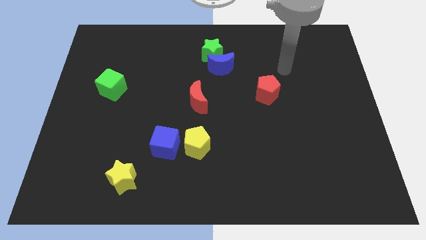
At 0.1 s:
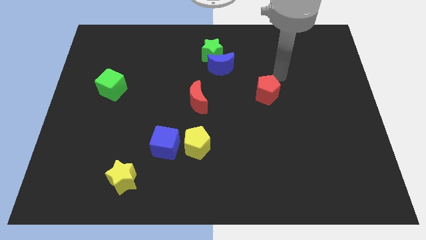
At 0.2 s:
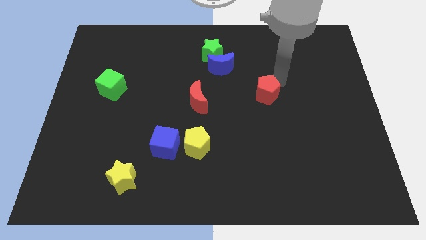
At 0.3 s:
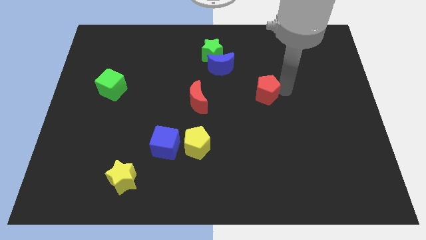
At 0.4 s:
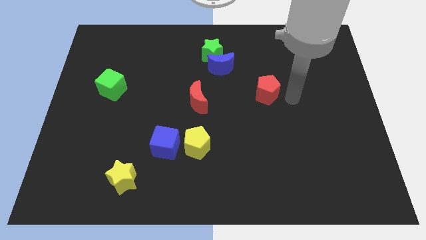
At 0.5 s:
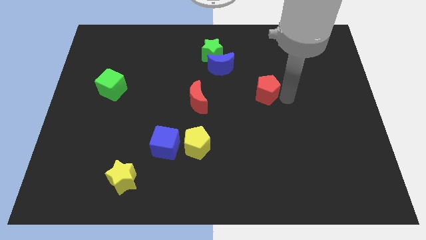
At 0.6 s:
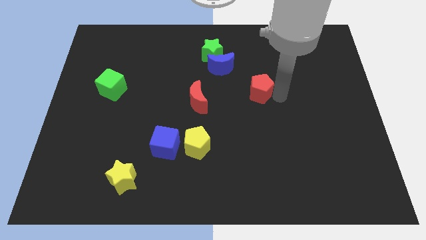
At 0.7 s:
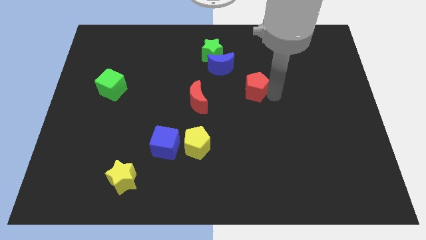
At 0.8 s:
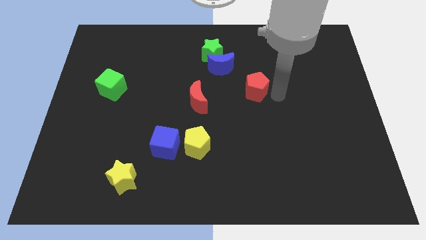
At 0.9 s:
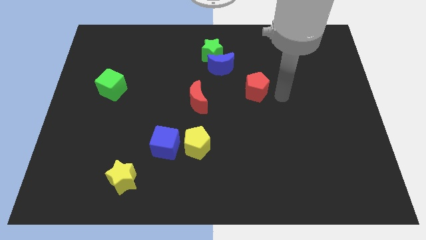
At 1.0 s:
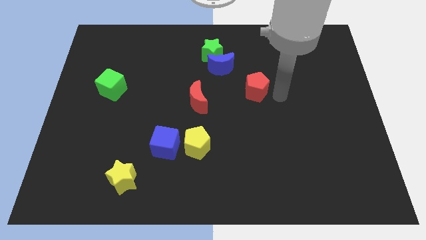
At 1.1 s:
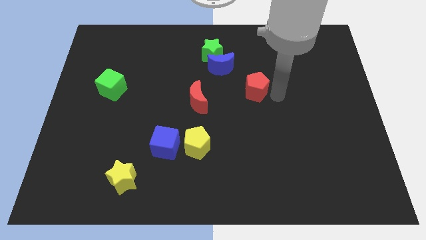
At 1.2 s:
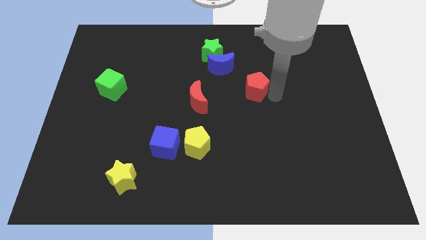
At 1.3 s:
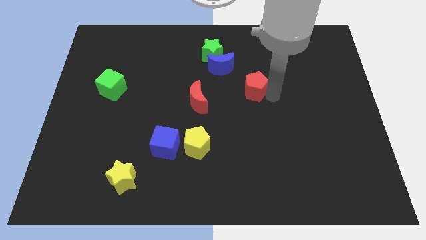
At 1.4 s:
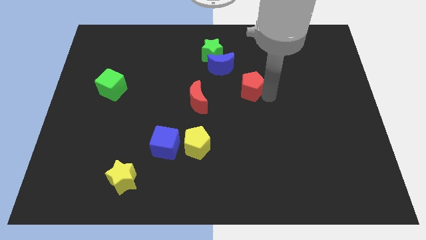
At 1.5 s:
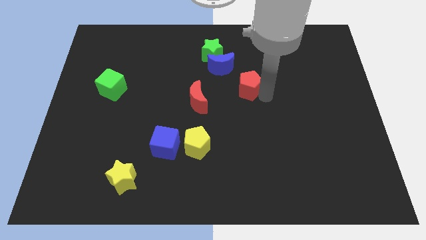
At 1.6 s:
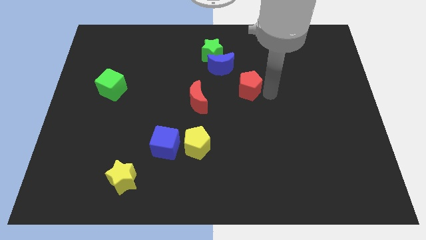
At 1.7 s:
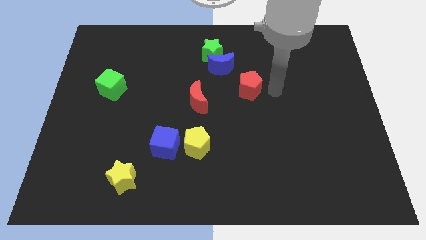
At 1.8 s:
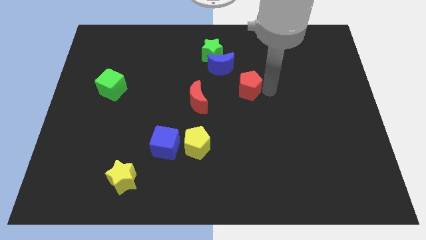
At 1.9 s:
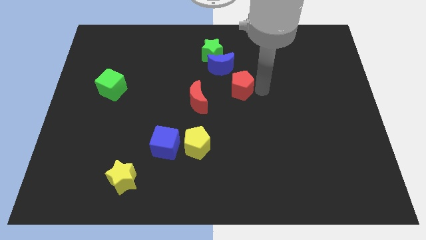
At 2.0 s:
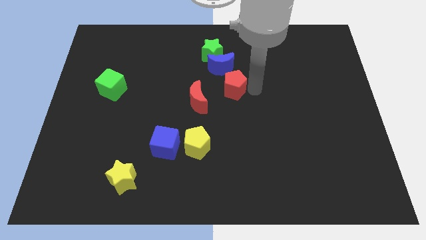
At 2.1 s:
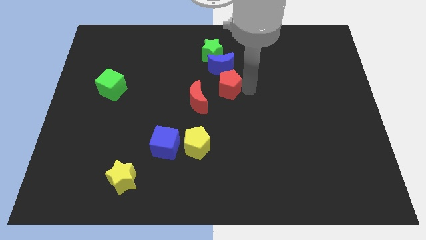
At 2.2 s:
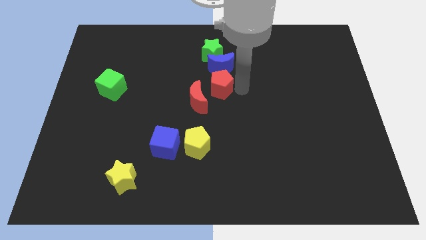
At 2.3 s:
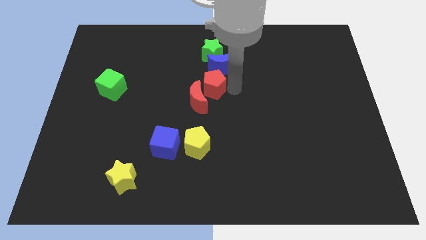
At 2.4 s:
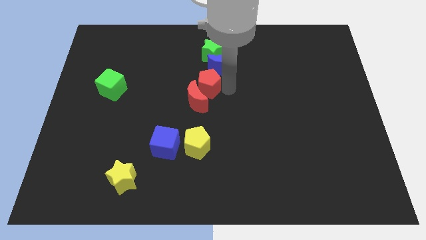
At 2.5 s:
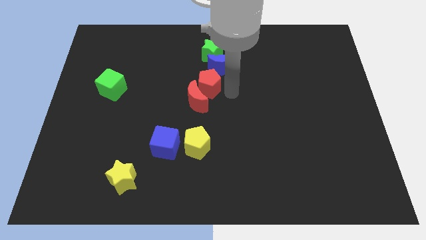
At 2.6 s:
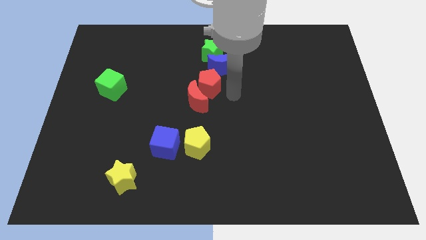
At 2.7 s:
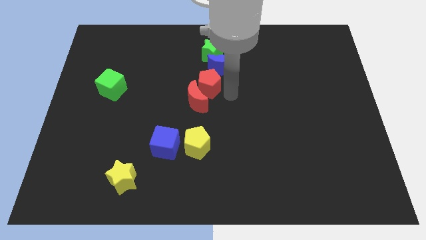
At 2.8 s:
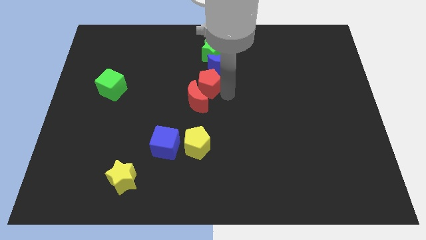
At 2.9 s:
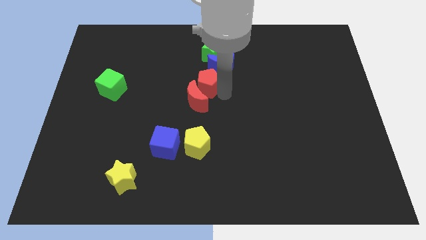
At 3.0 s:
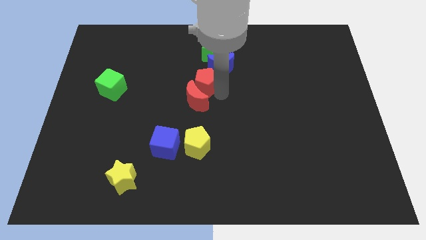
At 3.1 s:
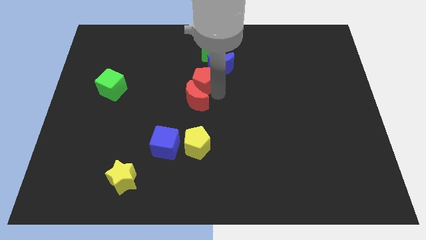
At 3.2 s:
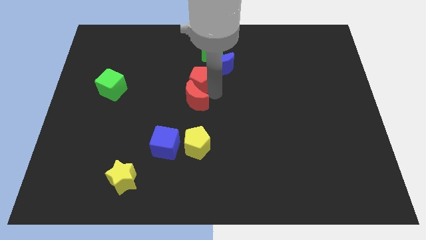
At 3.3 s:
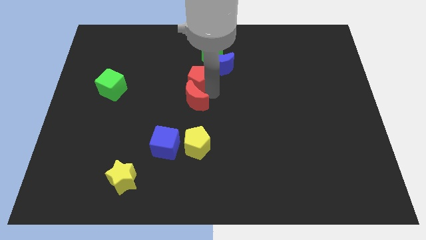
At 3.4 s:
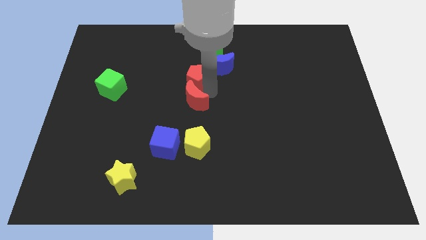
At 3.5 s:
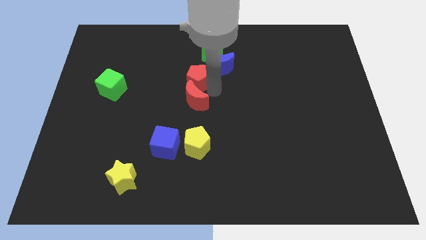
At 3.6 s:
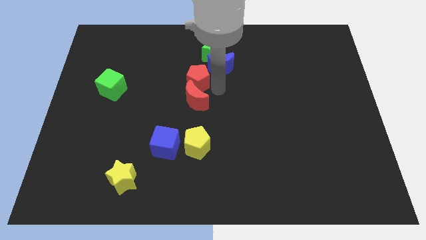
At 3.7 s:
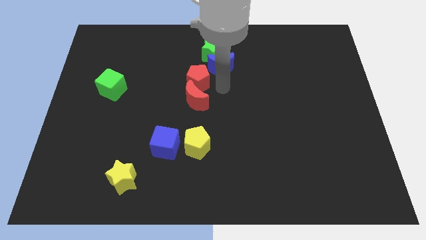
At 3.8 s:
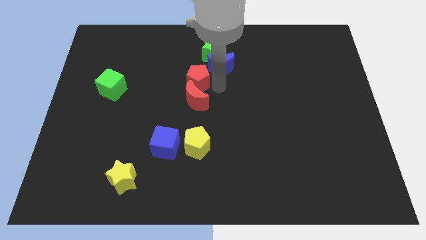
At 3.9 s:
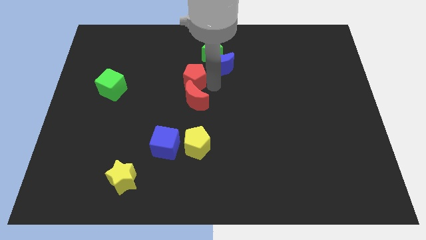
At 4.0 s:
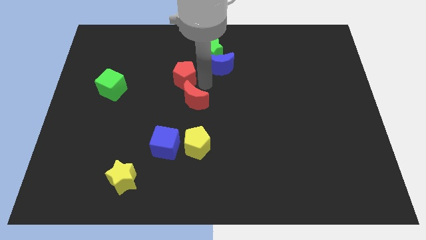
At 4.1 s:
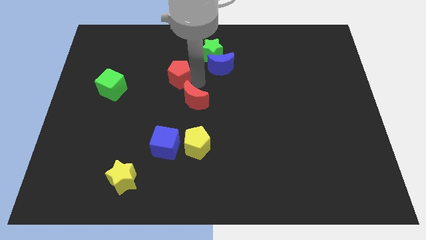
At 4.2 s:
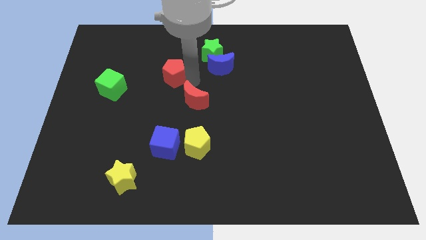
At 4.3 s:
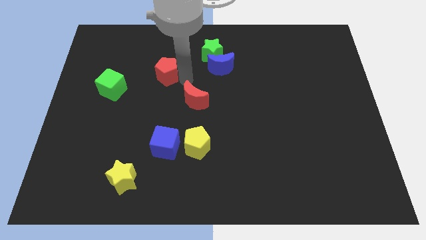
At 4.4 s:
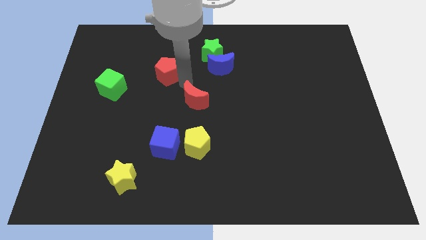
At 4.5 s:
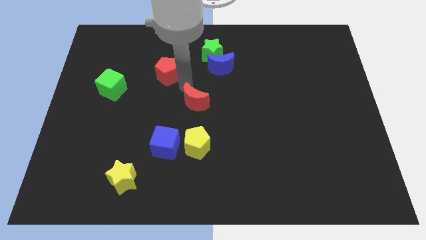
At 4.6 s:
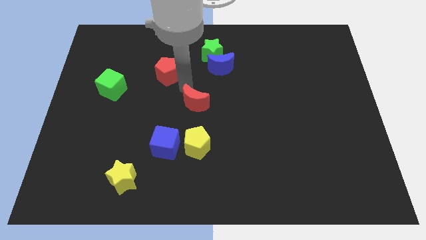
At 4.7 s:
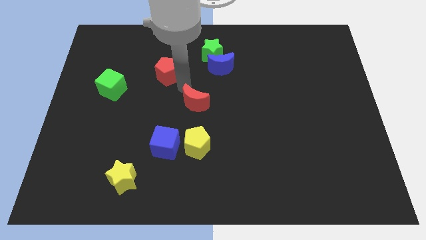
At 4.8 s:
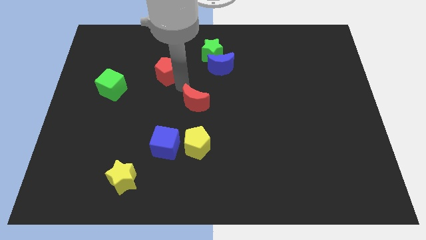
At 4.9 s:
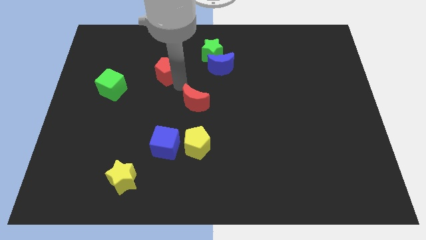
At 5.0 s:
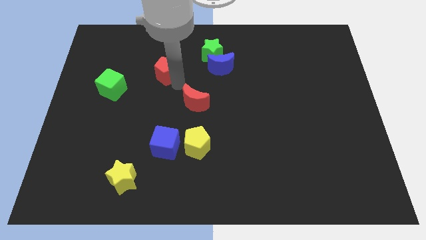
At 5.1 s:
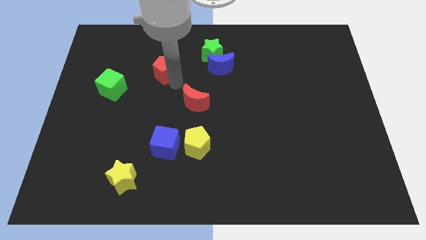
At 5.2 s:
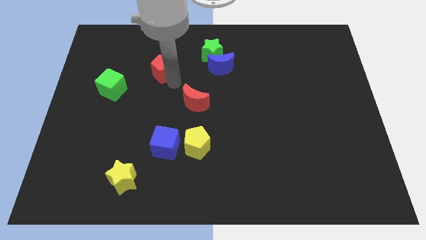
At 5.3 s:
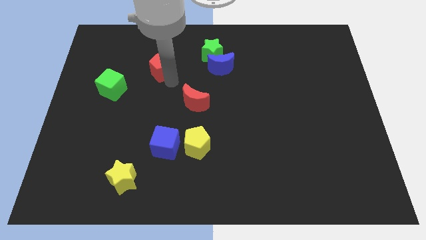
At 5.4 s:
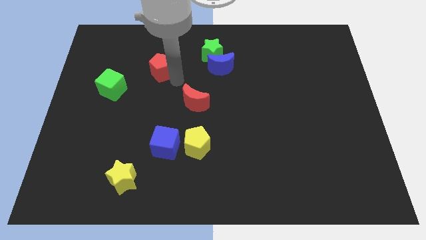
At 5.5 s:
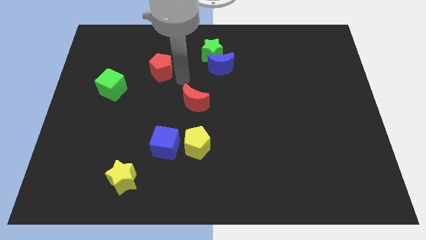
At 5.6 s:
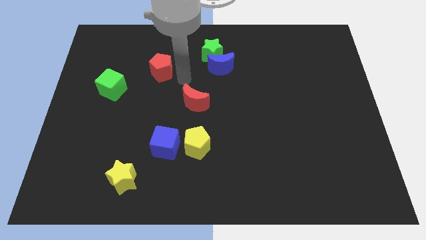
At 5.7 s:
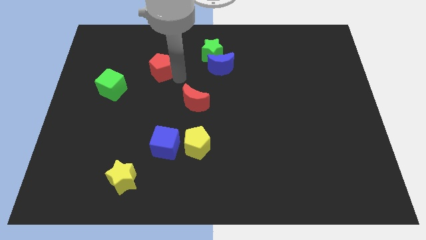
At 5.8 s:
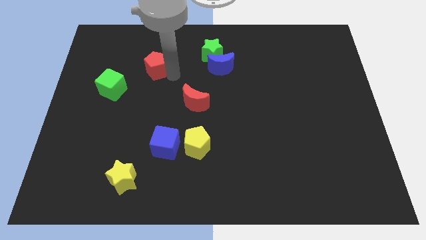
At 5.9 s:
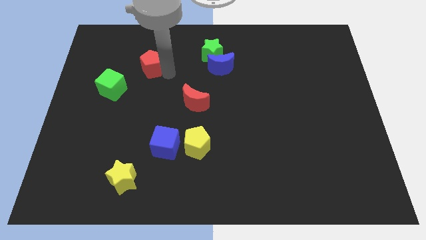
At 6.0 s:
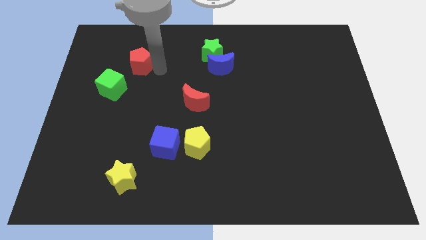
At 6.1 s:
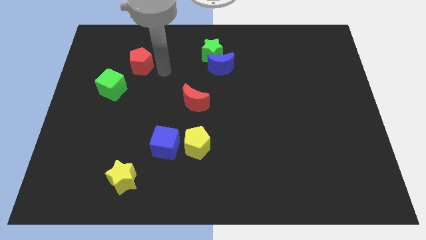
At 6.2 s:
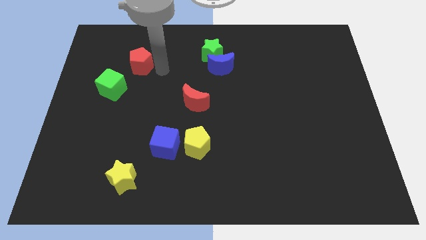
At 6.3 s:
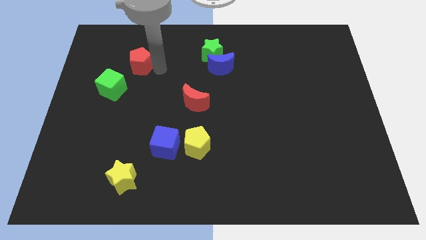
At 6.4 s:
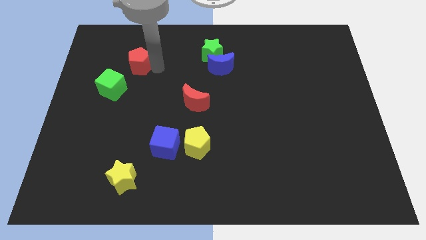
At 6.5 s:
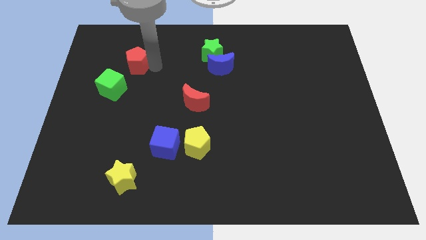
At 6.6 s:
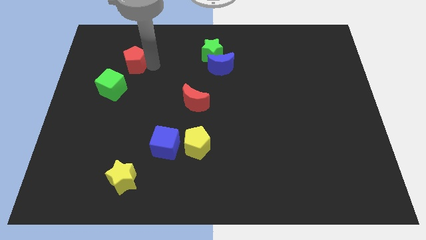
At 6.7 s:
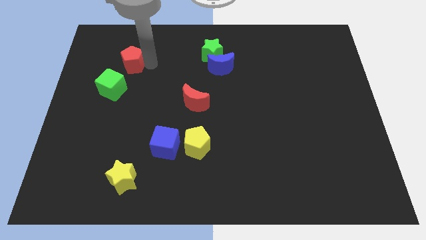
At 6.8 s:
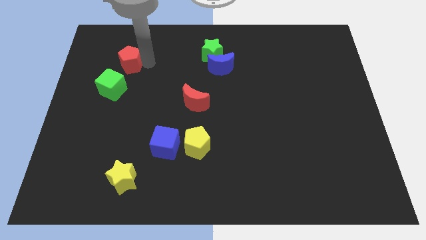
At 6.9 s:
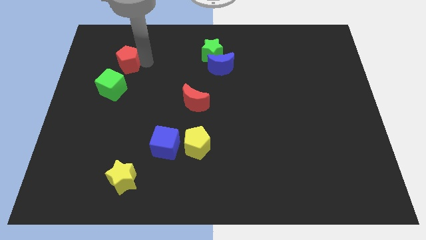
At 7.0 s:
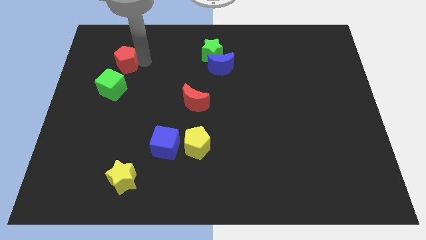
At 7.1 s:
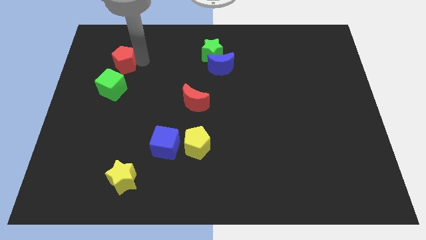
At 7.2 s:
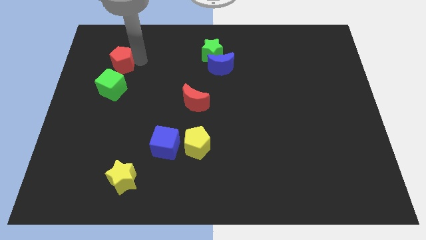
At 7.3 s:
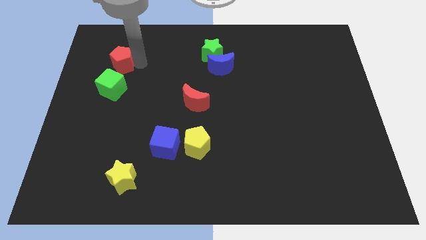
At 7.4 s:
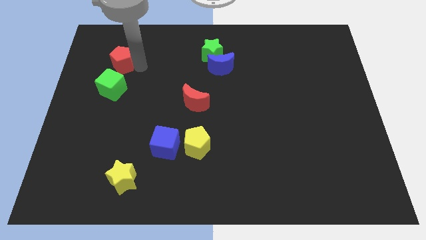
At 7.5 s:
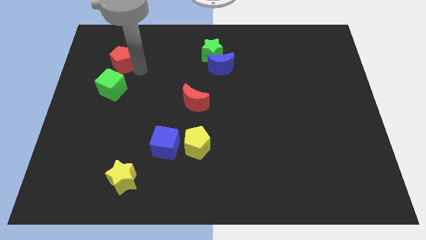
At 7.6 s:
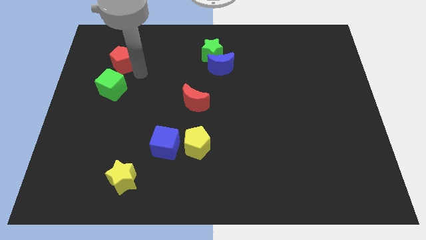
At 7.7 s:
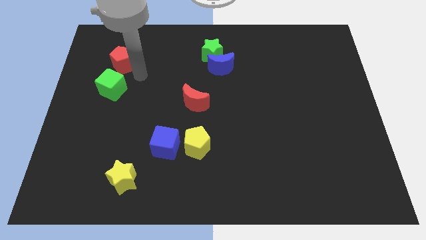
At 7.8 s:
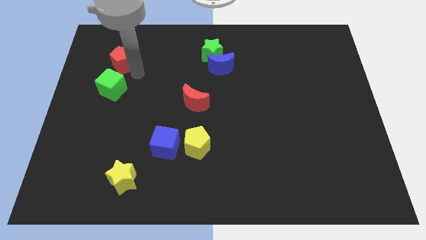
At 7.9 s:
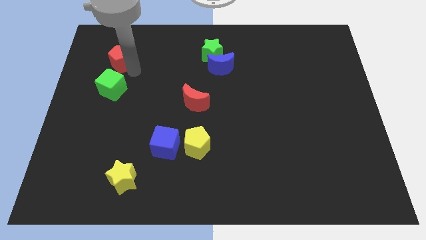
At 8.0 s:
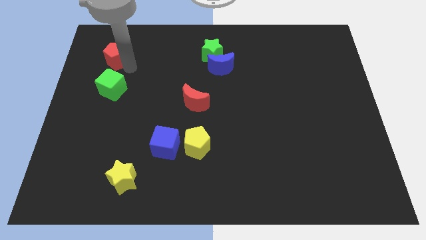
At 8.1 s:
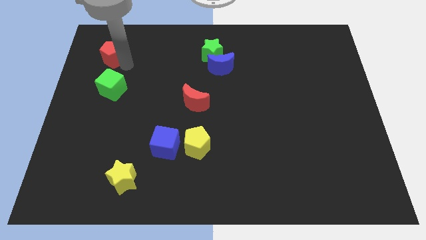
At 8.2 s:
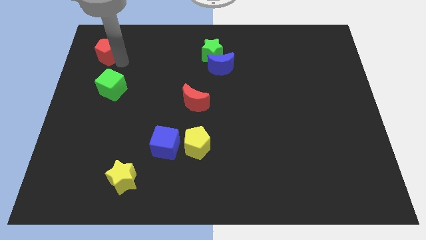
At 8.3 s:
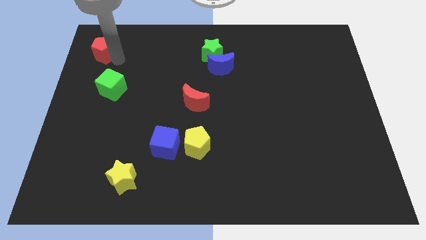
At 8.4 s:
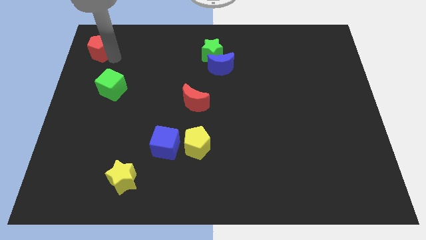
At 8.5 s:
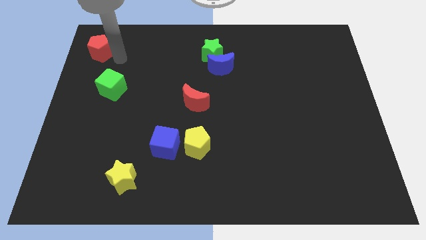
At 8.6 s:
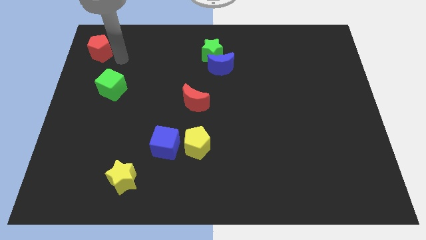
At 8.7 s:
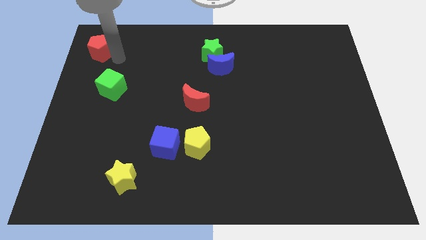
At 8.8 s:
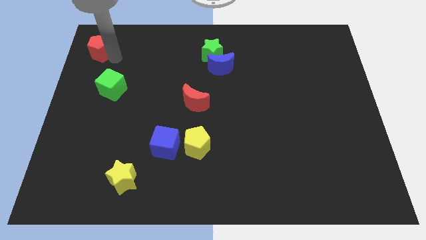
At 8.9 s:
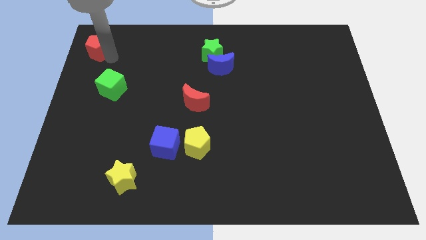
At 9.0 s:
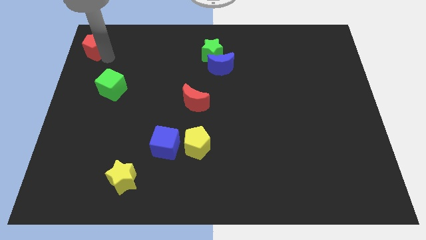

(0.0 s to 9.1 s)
slide the red pentagon to the upper left corner
